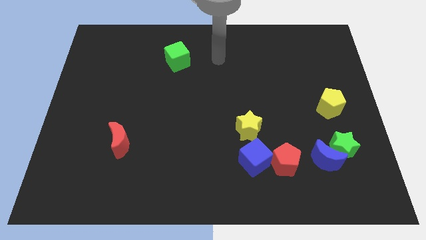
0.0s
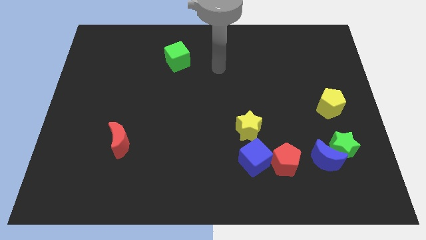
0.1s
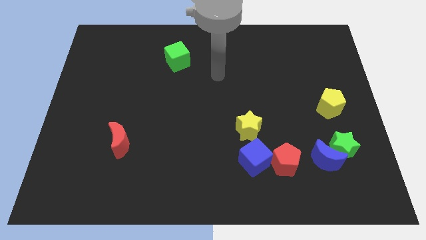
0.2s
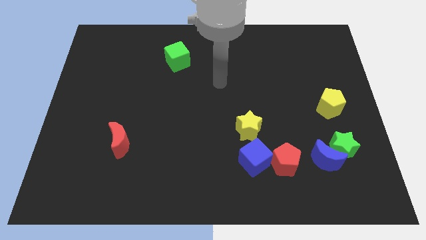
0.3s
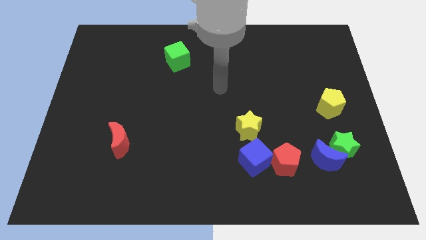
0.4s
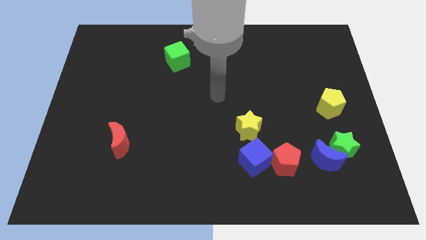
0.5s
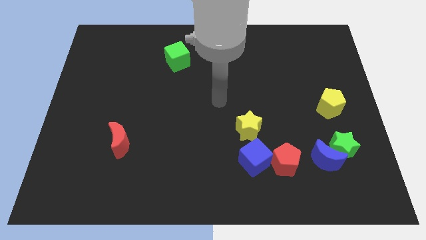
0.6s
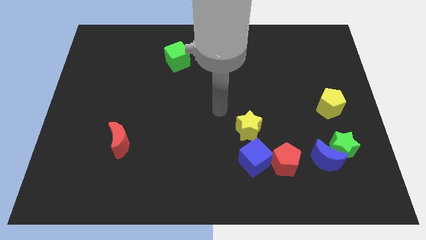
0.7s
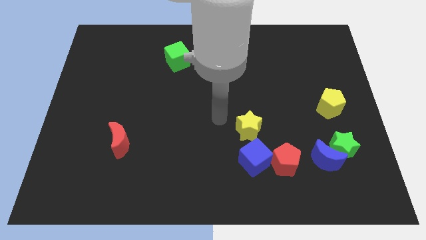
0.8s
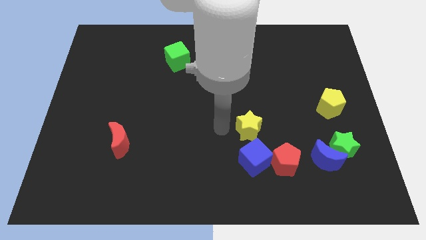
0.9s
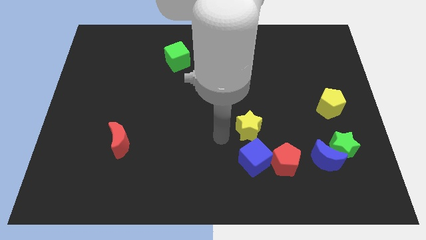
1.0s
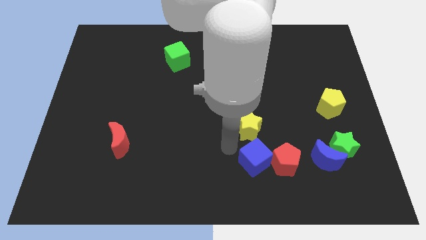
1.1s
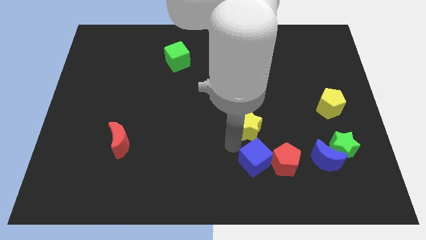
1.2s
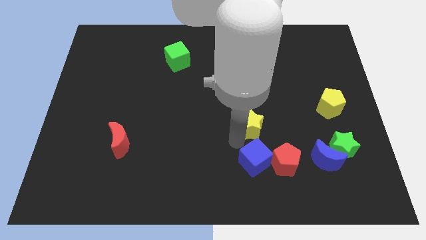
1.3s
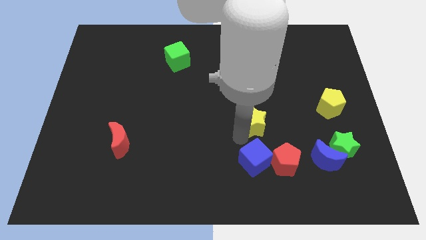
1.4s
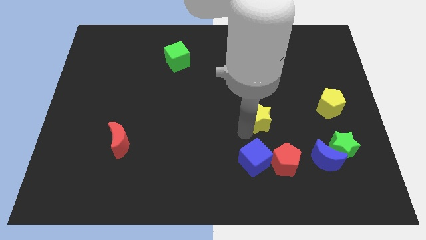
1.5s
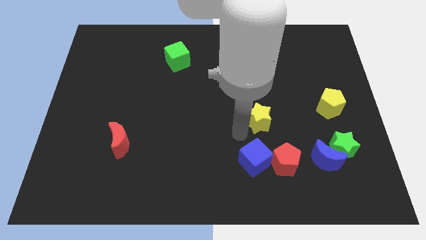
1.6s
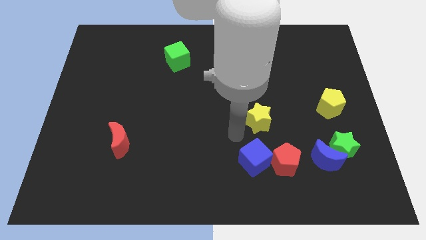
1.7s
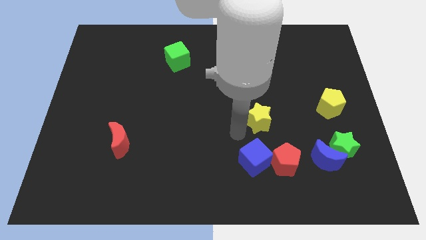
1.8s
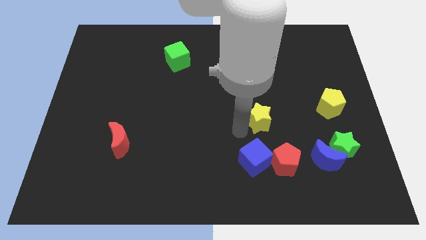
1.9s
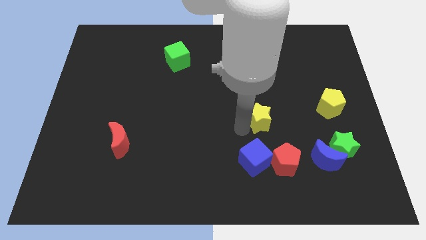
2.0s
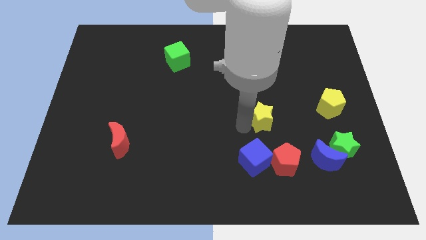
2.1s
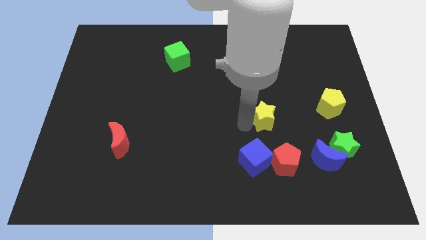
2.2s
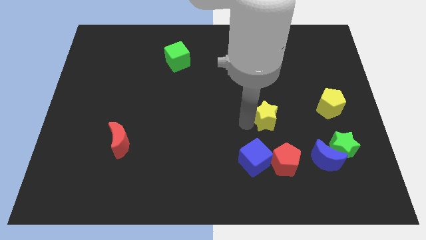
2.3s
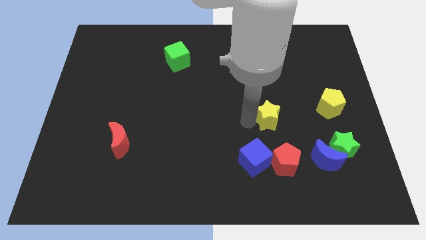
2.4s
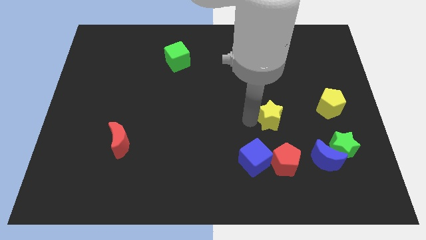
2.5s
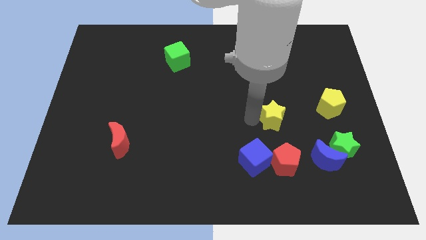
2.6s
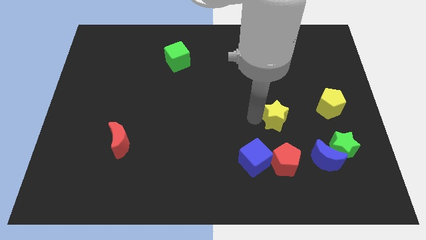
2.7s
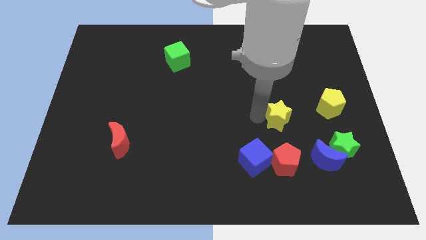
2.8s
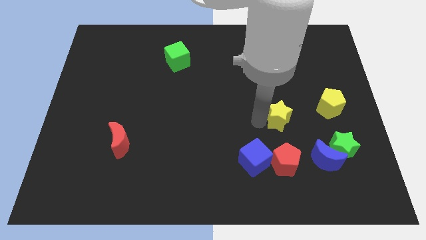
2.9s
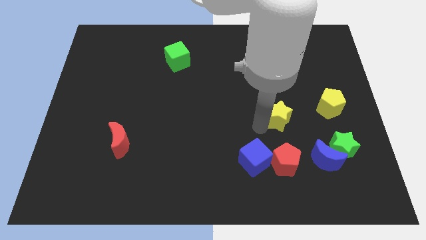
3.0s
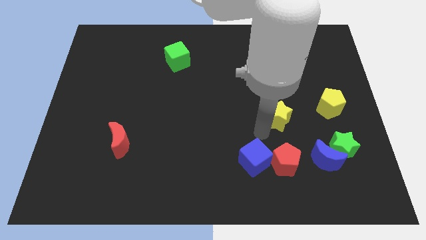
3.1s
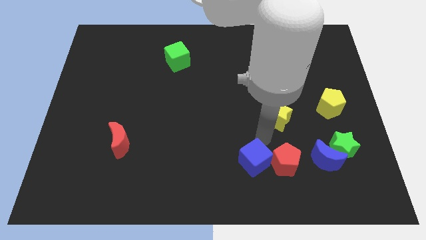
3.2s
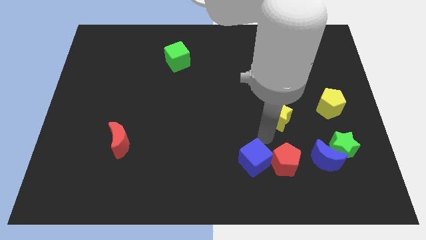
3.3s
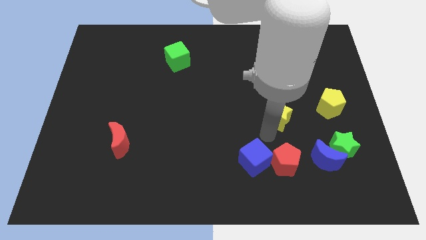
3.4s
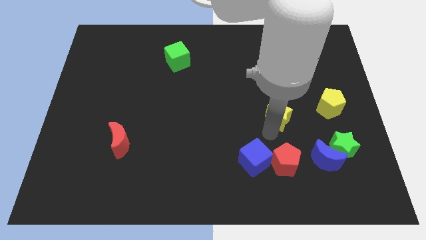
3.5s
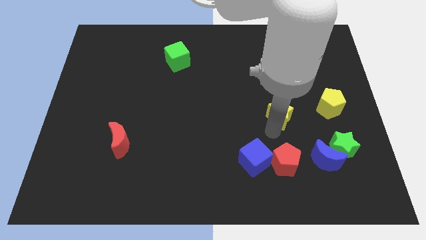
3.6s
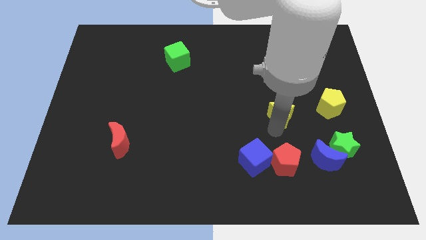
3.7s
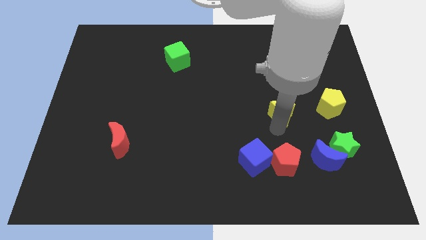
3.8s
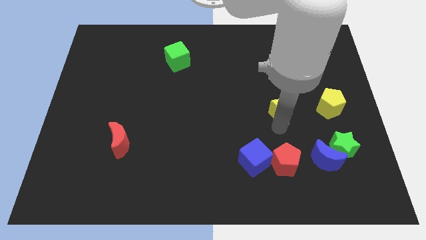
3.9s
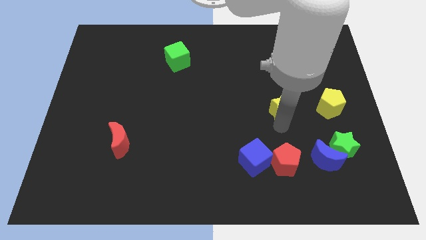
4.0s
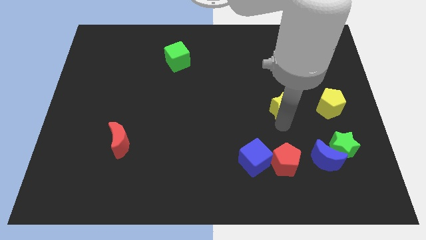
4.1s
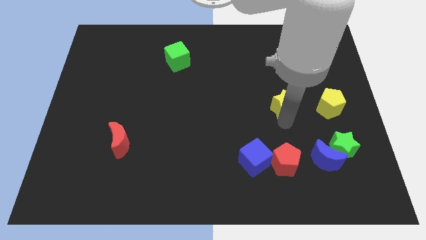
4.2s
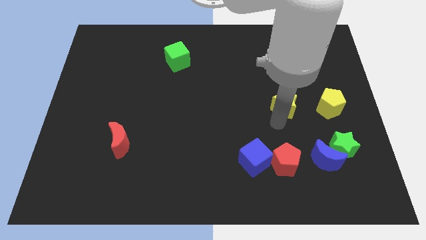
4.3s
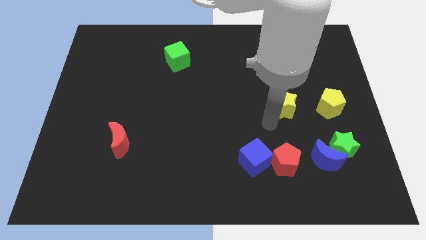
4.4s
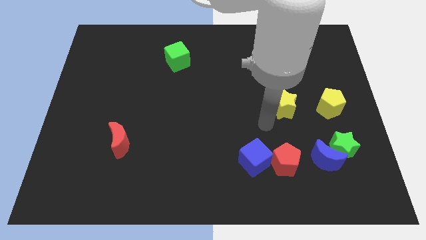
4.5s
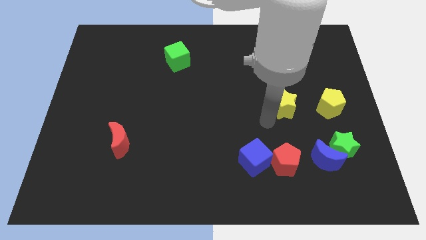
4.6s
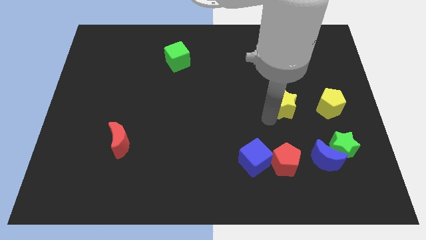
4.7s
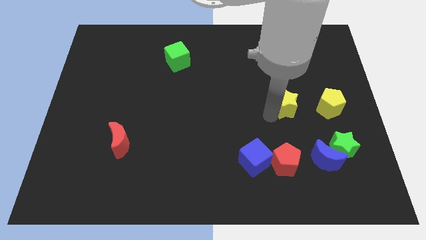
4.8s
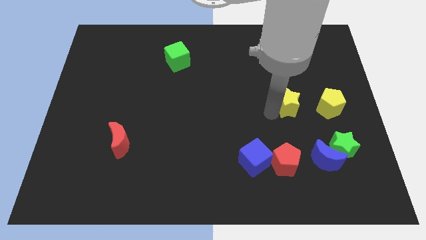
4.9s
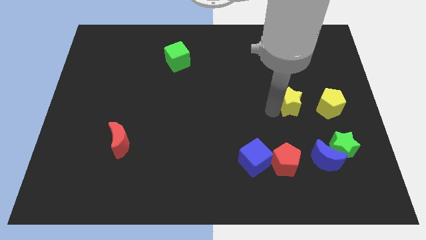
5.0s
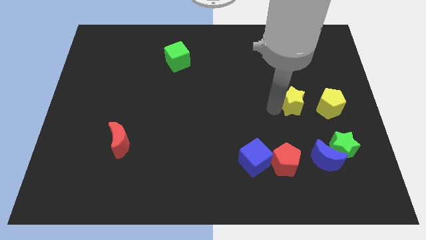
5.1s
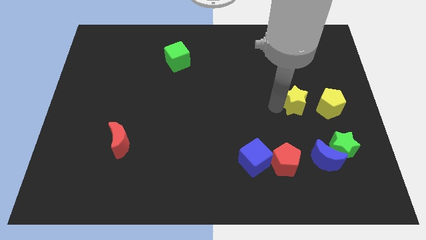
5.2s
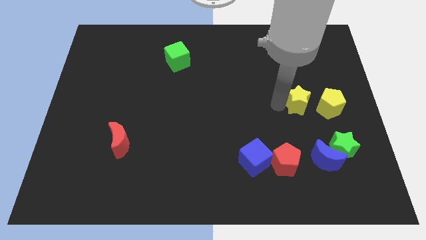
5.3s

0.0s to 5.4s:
move the yellow star to the top left of the yellow pentagon

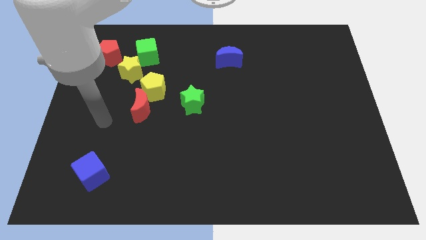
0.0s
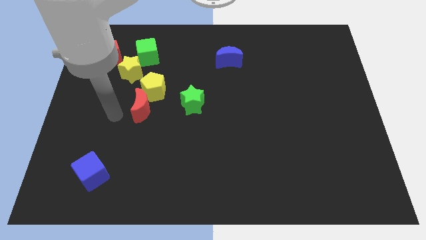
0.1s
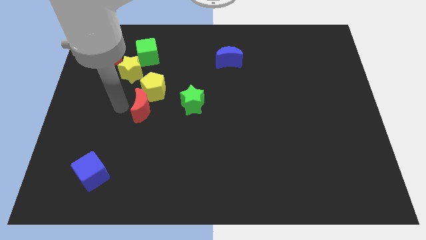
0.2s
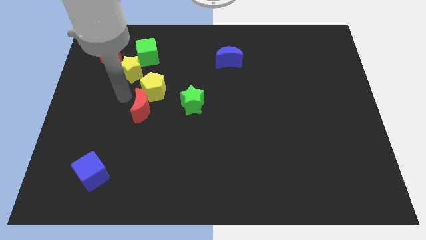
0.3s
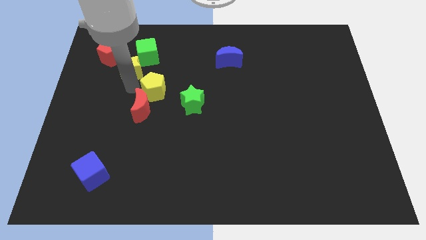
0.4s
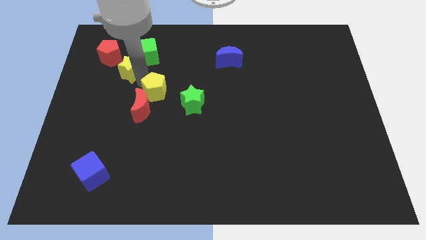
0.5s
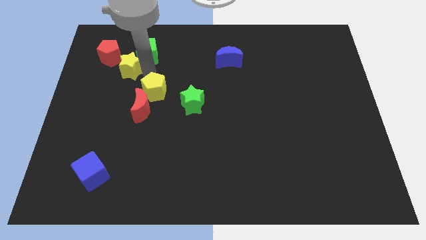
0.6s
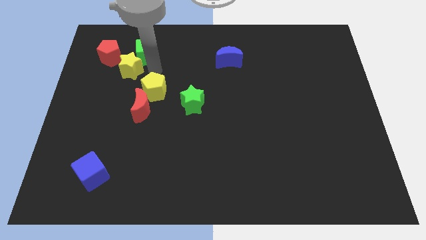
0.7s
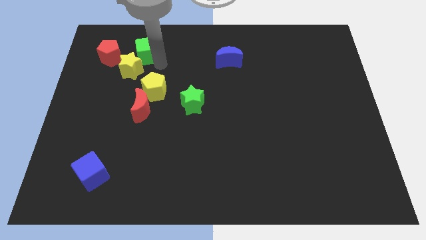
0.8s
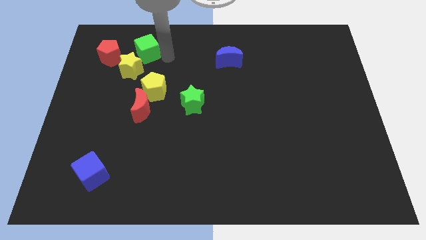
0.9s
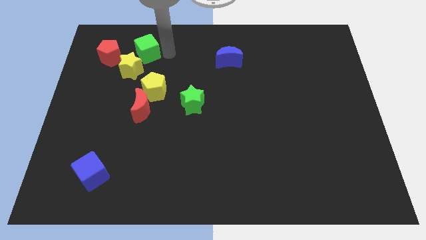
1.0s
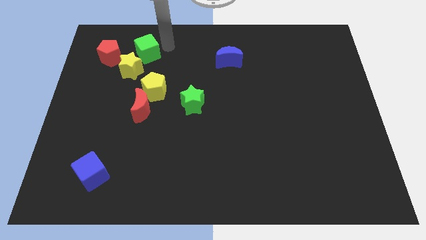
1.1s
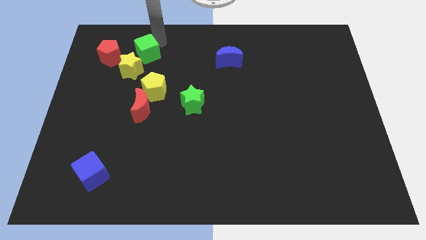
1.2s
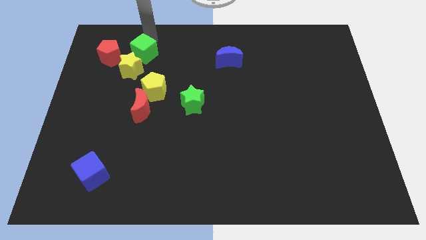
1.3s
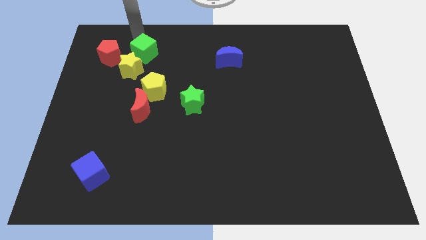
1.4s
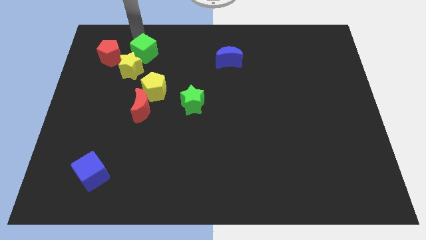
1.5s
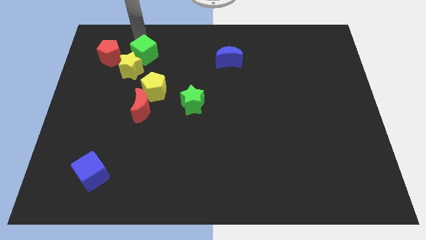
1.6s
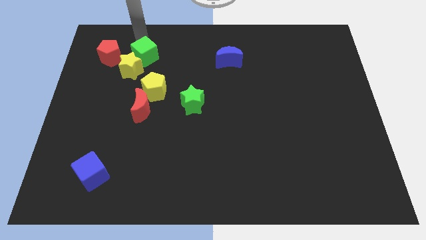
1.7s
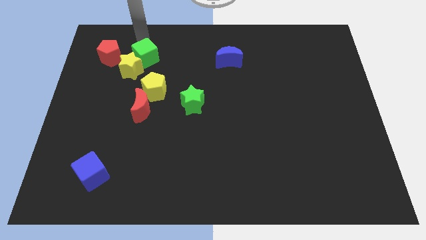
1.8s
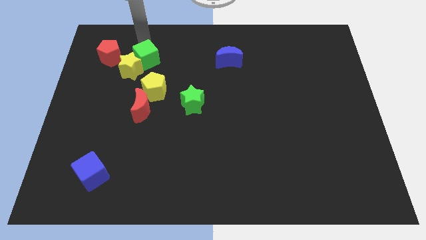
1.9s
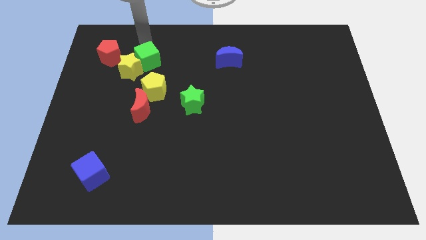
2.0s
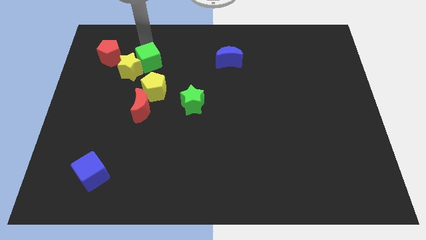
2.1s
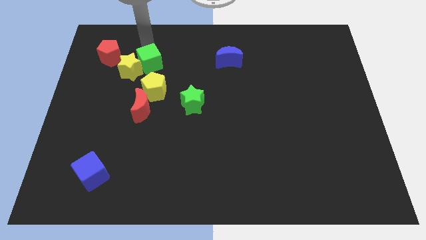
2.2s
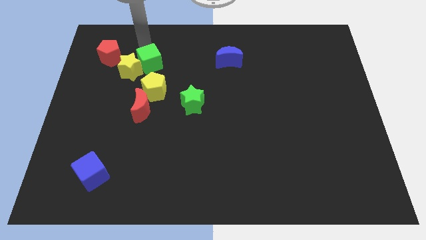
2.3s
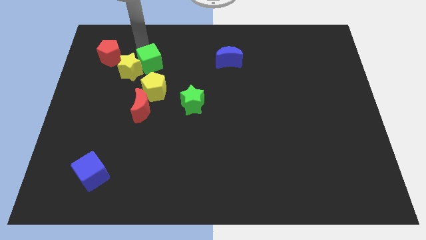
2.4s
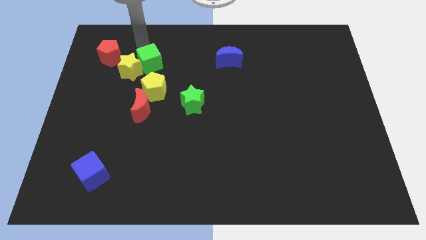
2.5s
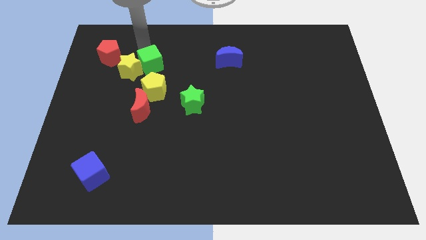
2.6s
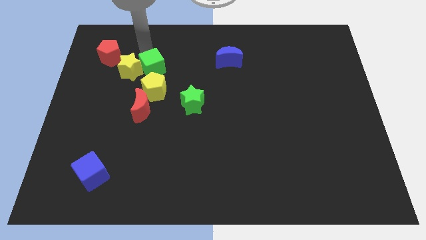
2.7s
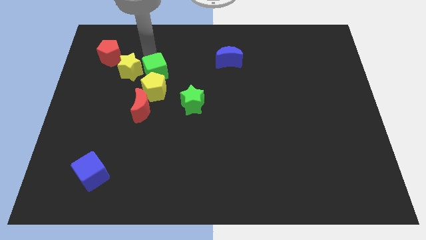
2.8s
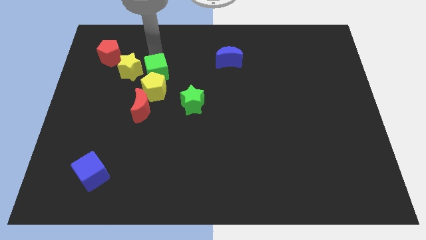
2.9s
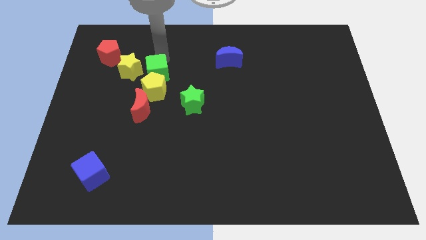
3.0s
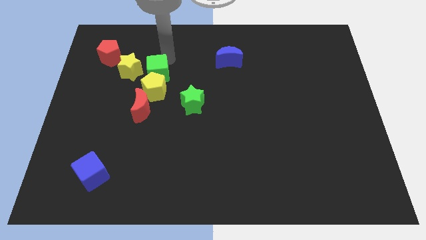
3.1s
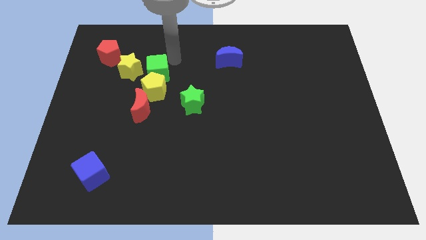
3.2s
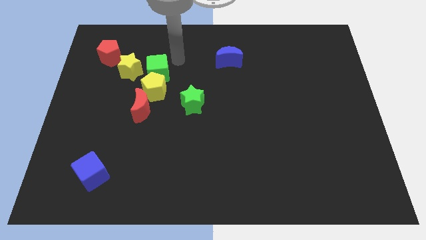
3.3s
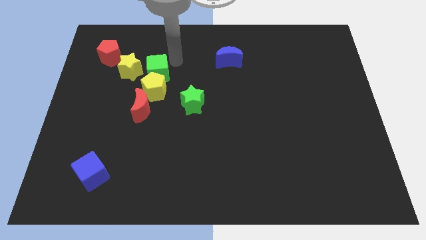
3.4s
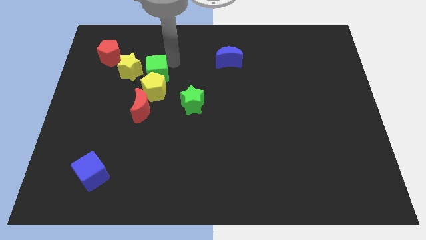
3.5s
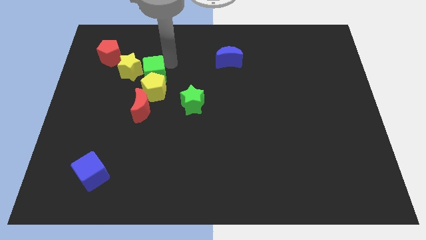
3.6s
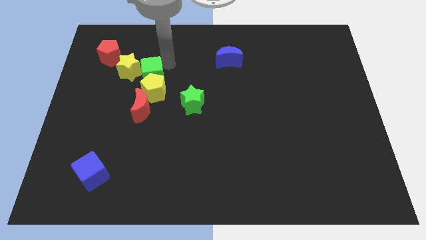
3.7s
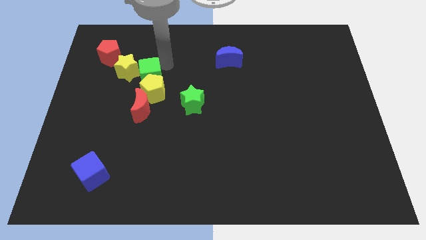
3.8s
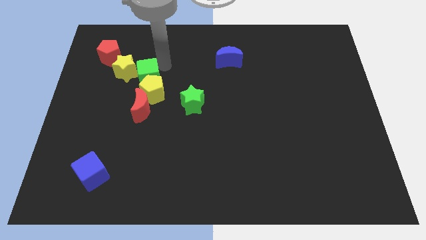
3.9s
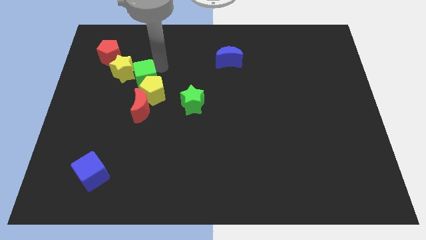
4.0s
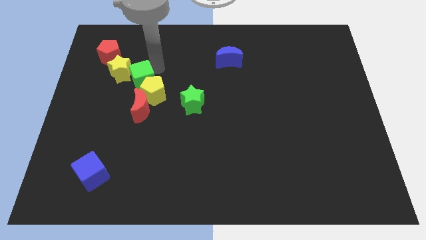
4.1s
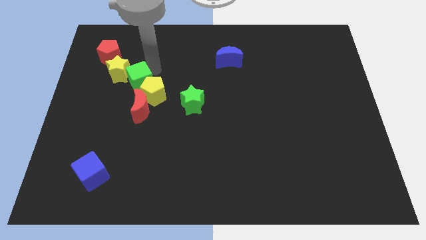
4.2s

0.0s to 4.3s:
put the green cube to the left of the yellow pentagon
